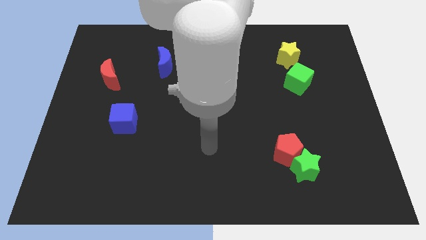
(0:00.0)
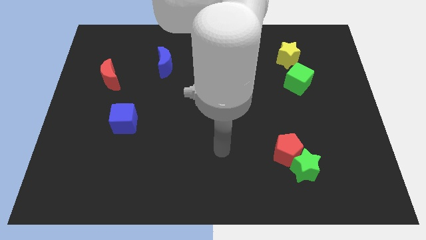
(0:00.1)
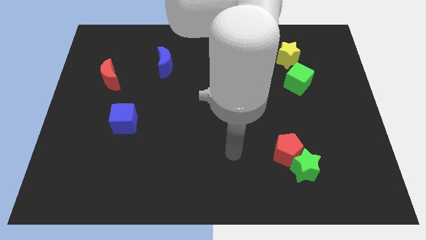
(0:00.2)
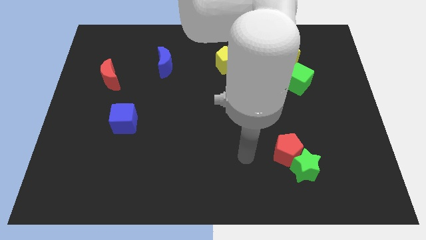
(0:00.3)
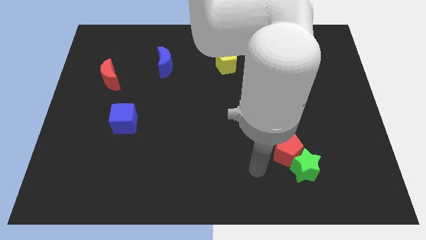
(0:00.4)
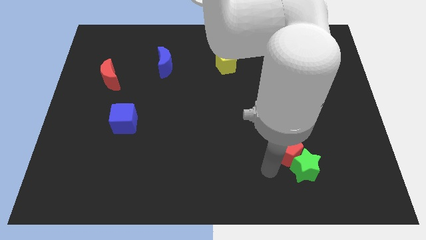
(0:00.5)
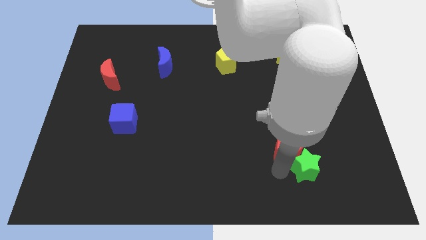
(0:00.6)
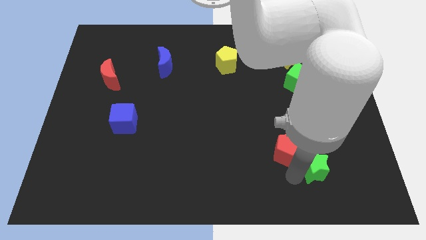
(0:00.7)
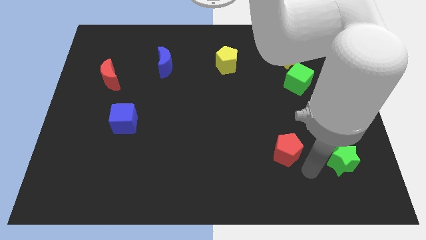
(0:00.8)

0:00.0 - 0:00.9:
pull the red pentagon apart from the green star

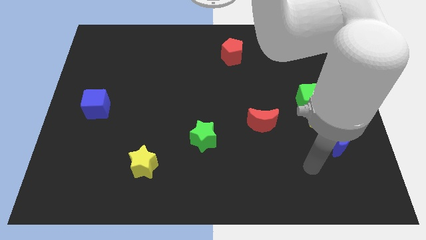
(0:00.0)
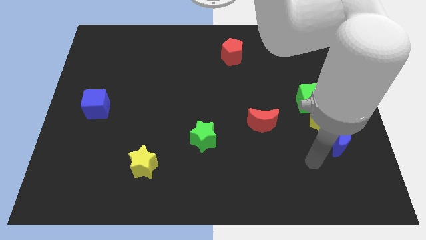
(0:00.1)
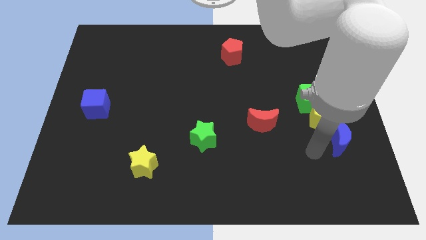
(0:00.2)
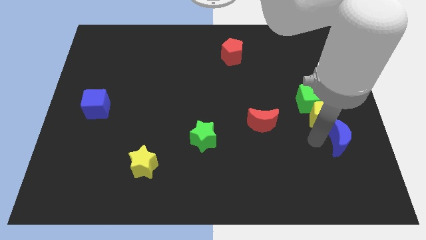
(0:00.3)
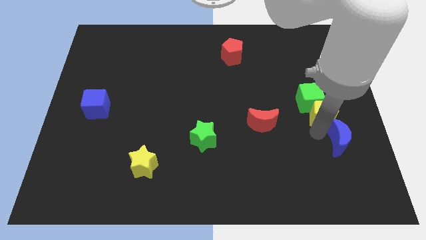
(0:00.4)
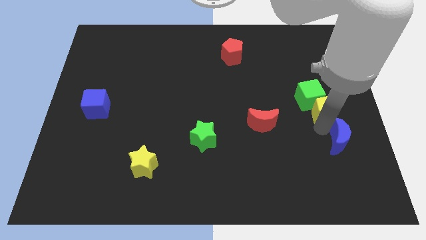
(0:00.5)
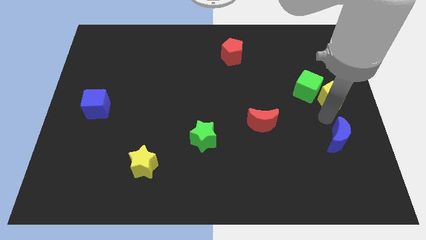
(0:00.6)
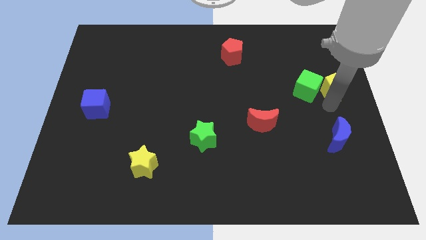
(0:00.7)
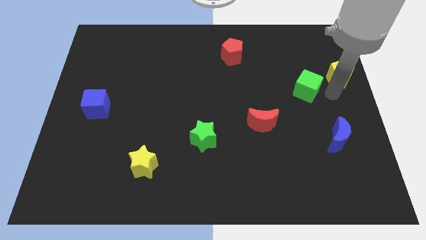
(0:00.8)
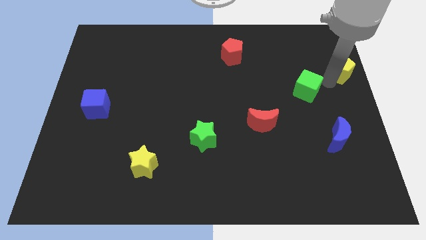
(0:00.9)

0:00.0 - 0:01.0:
separate the green cube from the yellow pentagon

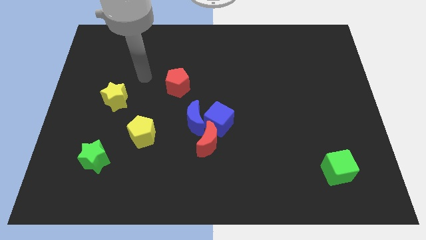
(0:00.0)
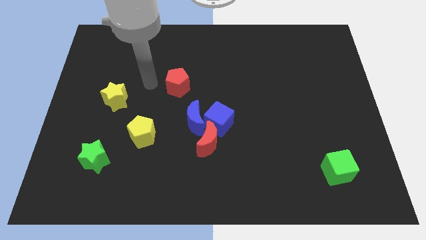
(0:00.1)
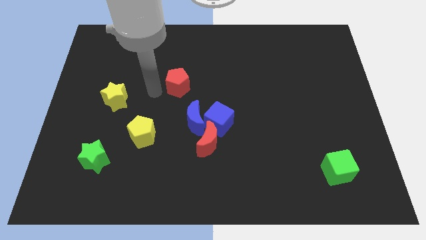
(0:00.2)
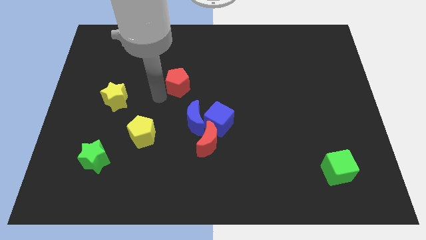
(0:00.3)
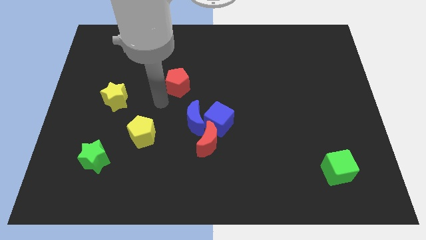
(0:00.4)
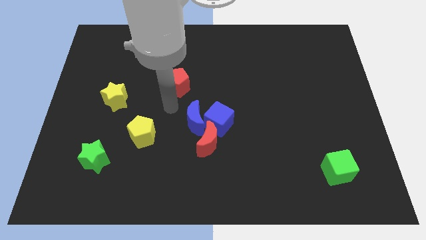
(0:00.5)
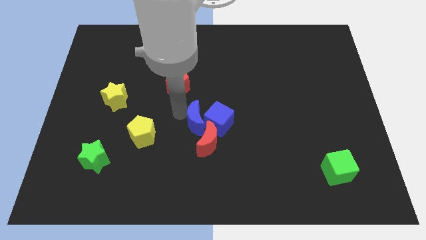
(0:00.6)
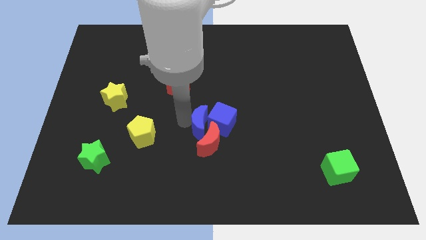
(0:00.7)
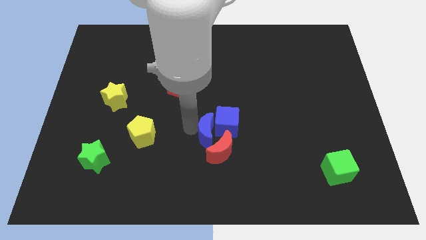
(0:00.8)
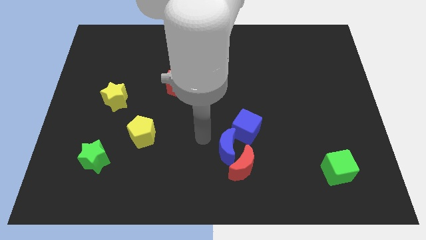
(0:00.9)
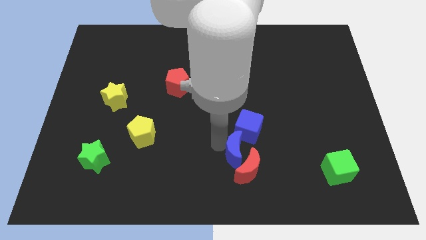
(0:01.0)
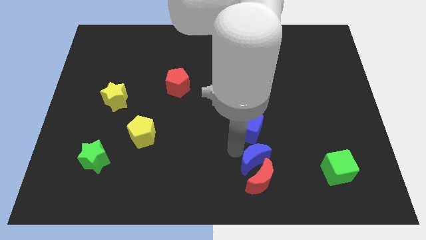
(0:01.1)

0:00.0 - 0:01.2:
separate the blue cube from the blue moon and red moon

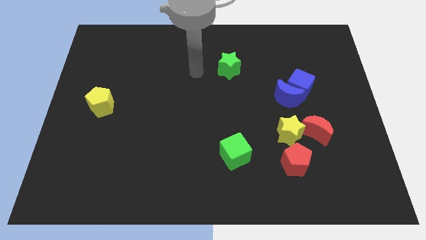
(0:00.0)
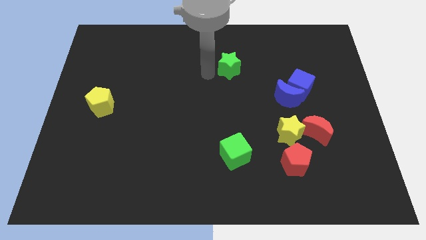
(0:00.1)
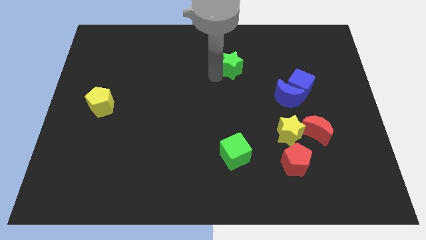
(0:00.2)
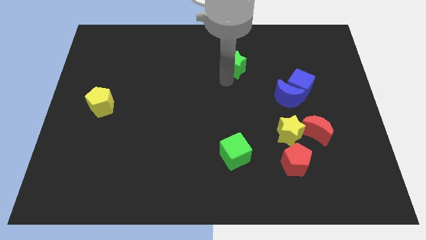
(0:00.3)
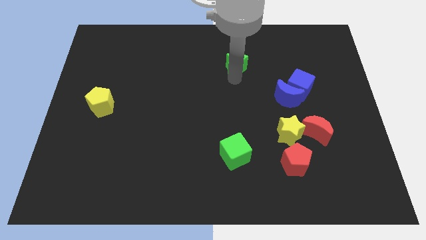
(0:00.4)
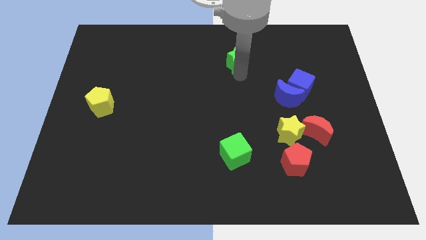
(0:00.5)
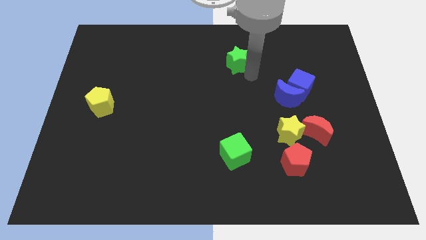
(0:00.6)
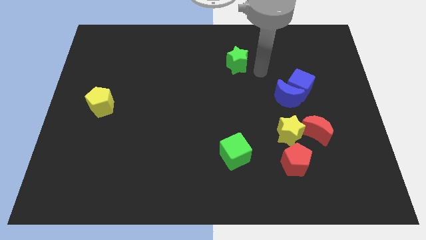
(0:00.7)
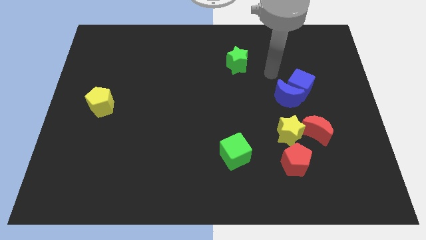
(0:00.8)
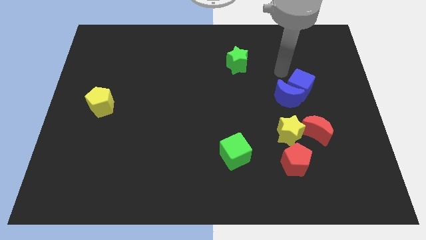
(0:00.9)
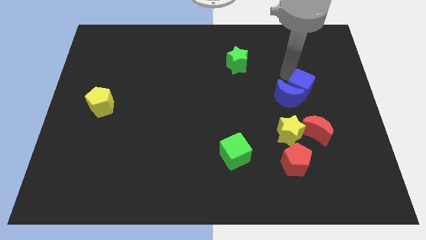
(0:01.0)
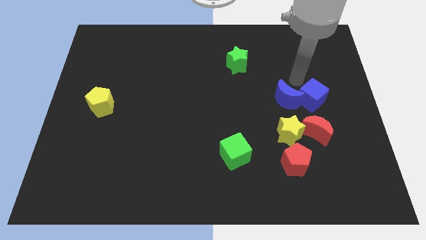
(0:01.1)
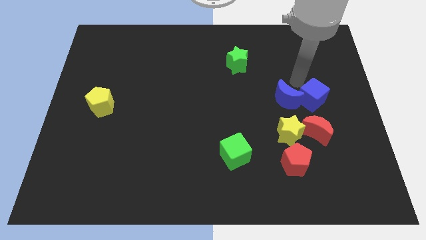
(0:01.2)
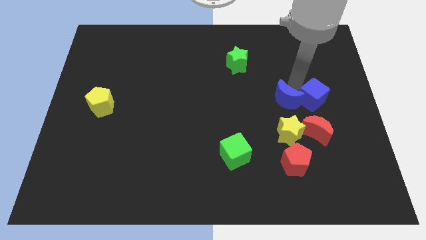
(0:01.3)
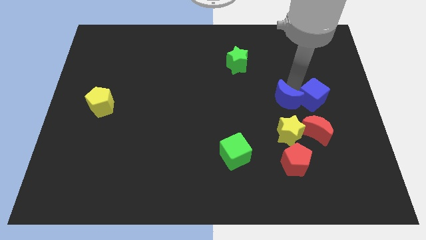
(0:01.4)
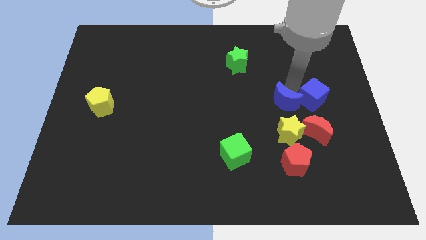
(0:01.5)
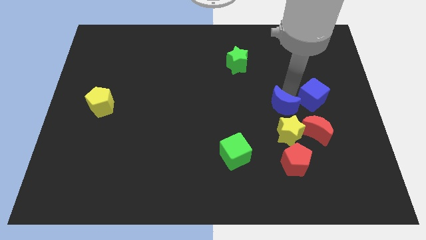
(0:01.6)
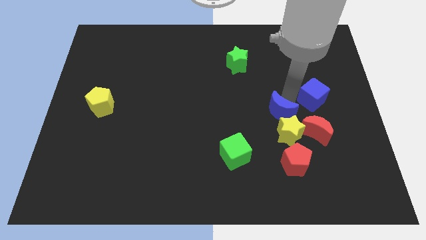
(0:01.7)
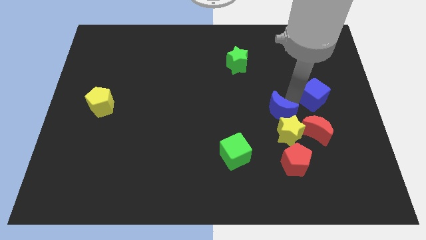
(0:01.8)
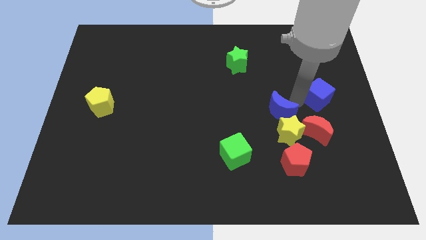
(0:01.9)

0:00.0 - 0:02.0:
move the blue moon away from the blue cube

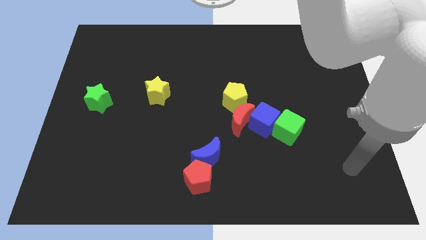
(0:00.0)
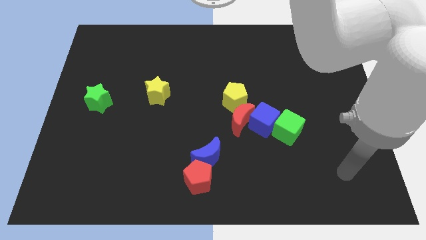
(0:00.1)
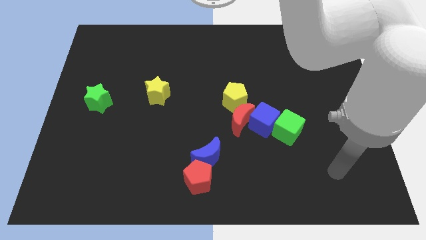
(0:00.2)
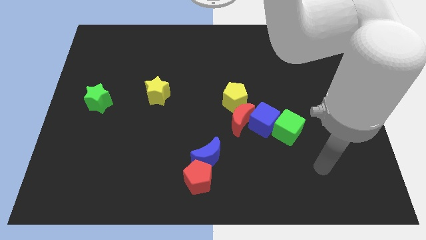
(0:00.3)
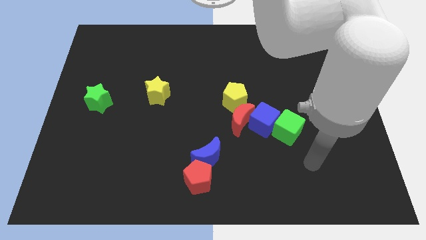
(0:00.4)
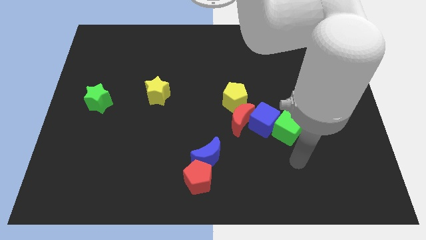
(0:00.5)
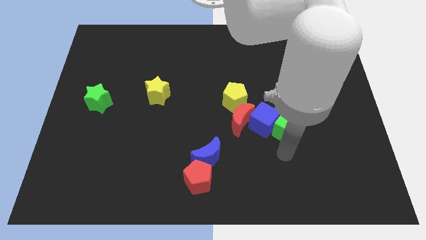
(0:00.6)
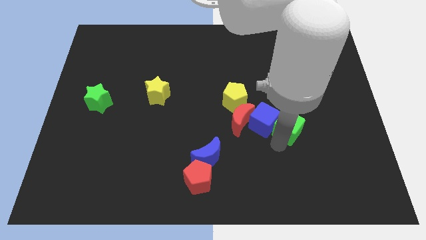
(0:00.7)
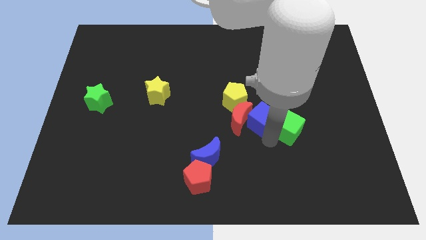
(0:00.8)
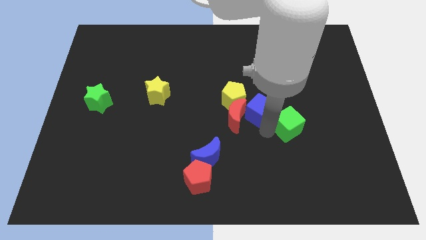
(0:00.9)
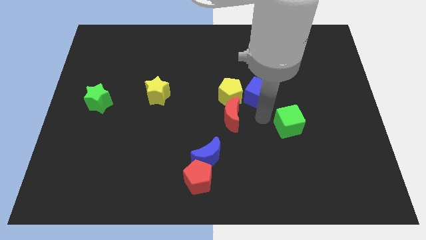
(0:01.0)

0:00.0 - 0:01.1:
move the green cube away from the blue cube

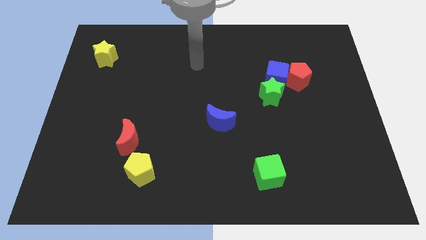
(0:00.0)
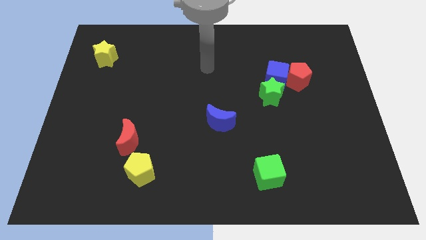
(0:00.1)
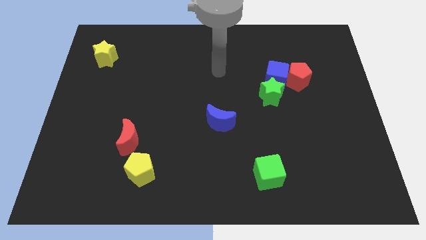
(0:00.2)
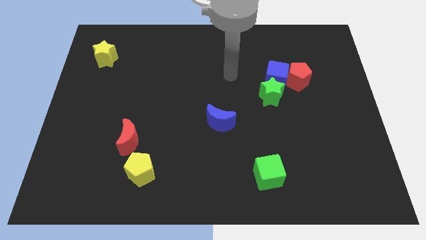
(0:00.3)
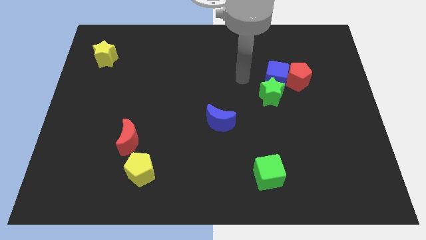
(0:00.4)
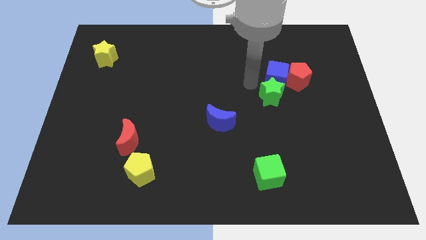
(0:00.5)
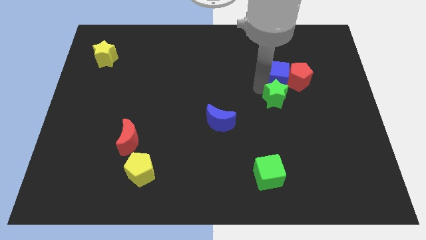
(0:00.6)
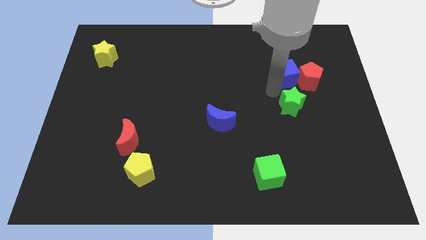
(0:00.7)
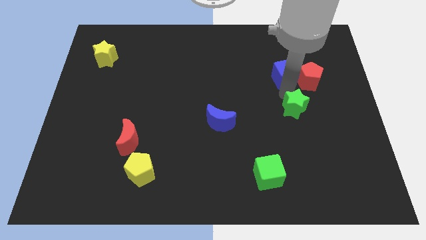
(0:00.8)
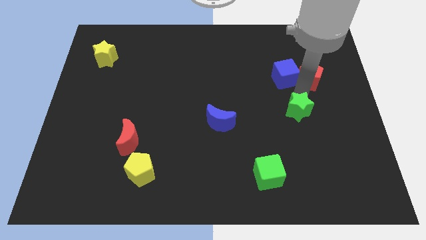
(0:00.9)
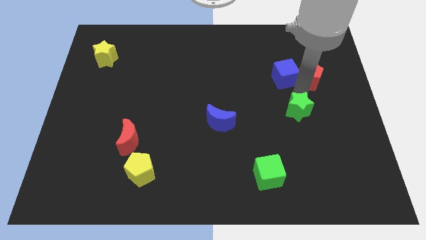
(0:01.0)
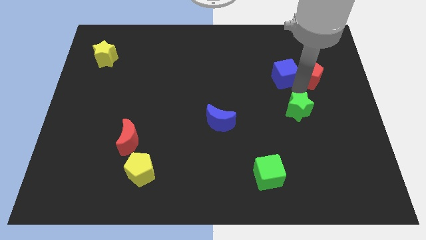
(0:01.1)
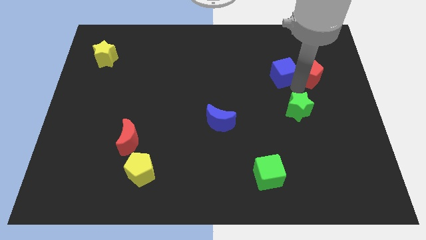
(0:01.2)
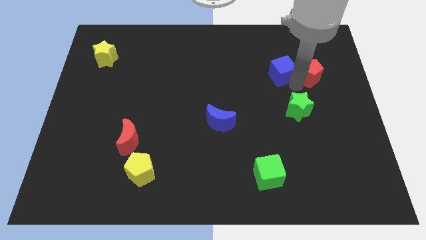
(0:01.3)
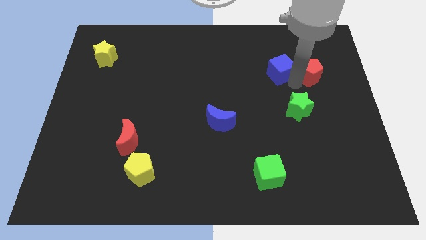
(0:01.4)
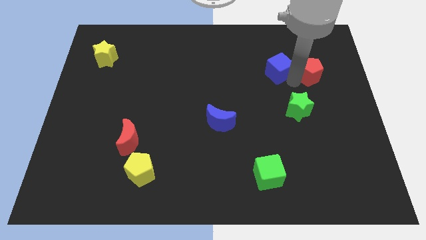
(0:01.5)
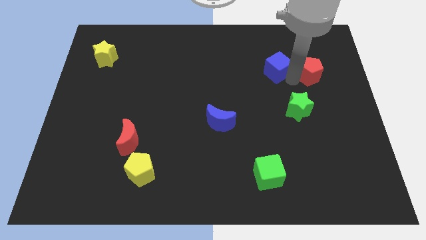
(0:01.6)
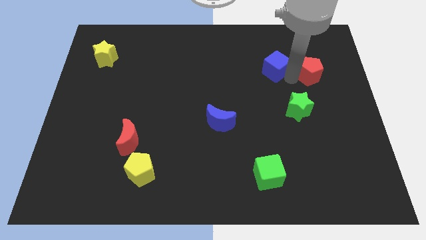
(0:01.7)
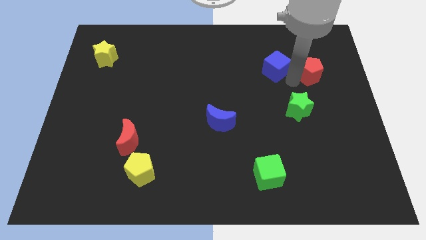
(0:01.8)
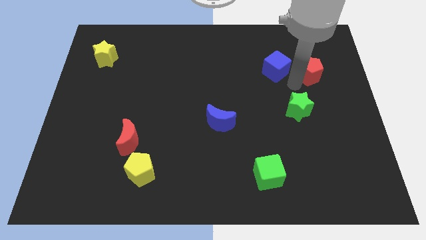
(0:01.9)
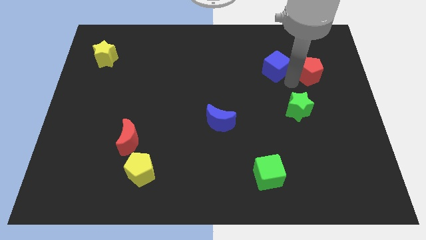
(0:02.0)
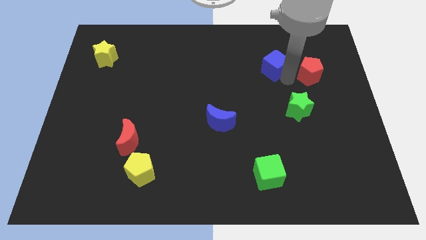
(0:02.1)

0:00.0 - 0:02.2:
move the blue cube away from the red pentagon and green star

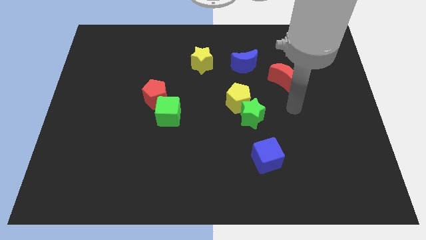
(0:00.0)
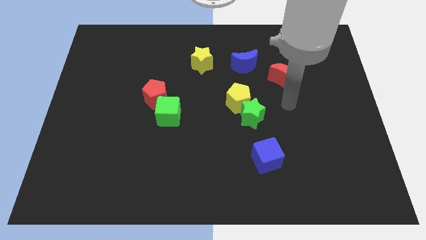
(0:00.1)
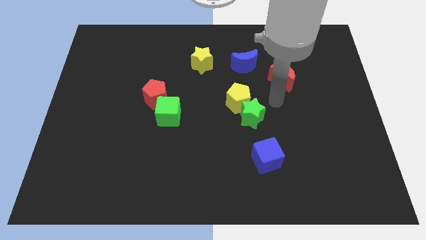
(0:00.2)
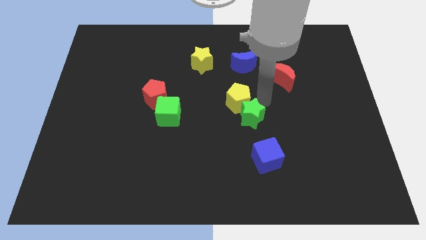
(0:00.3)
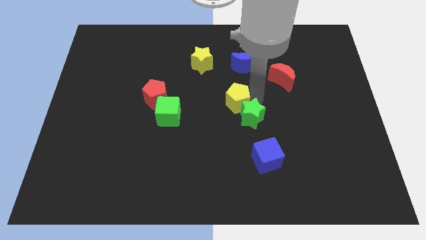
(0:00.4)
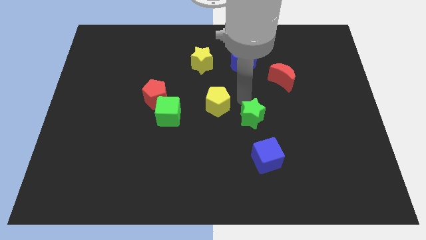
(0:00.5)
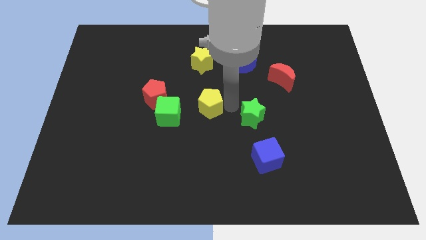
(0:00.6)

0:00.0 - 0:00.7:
pull the green star apart from the yellow pentagon

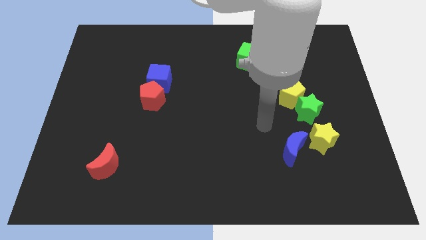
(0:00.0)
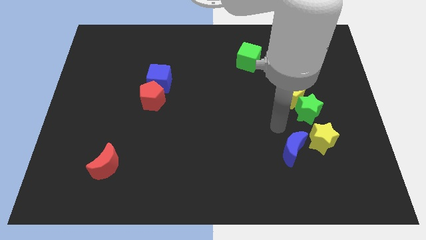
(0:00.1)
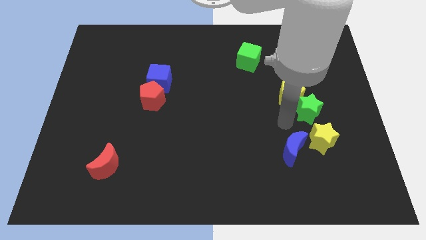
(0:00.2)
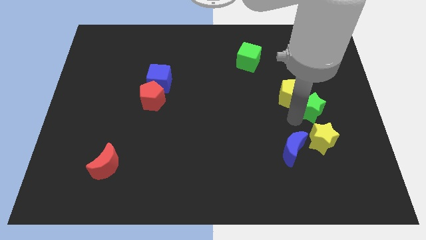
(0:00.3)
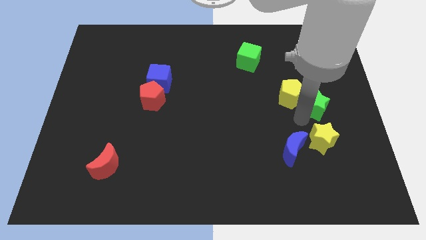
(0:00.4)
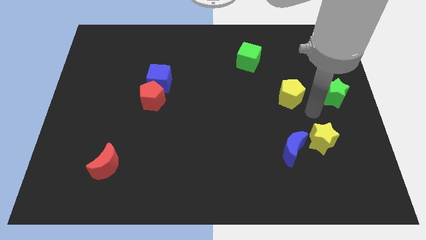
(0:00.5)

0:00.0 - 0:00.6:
separate the yellow pentagon from the green star
